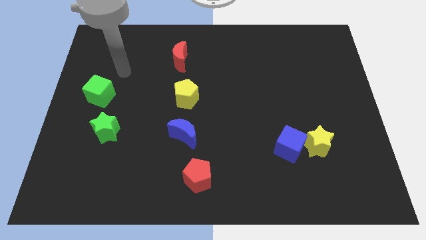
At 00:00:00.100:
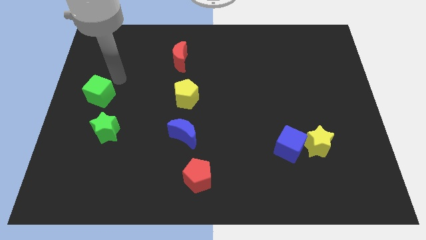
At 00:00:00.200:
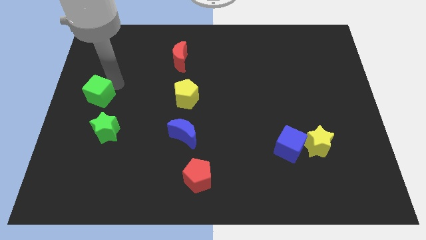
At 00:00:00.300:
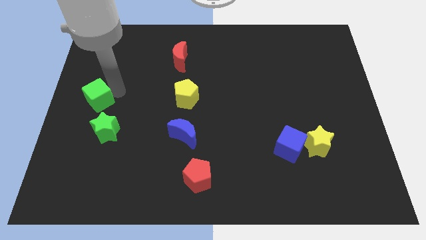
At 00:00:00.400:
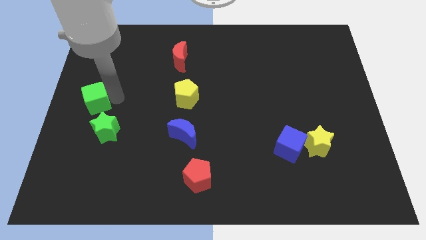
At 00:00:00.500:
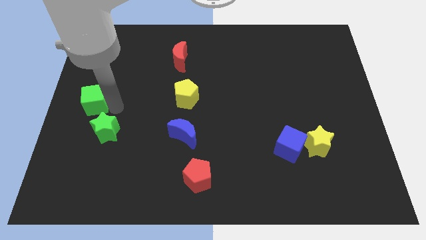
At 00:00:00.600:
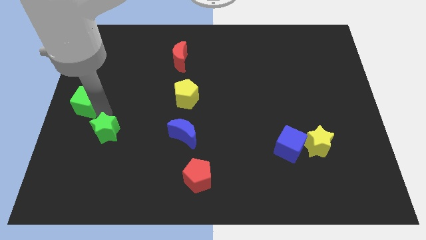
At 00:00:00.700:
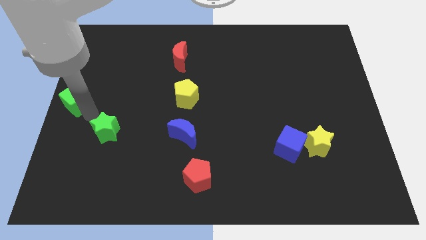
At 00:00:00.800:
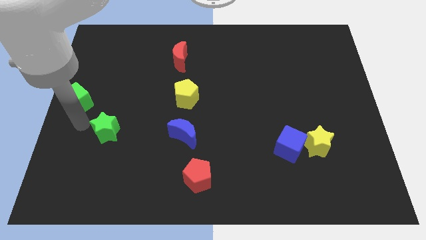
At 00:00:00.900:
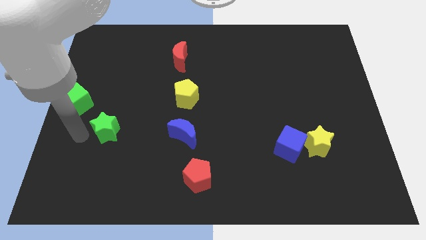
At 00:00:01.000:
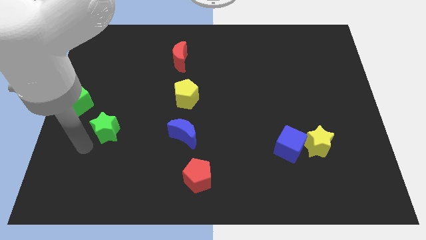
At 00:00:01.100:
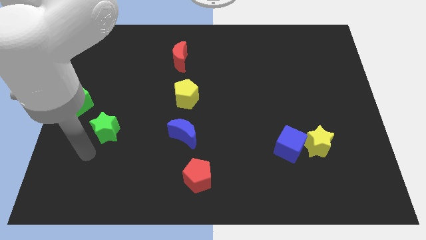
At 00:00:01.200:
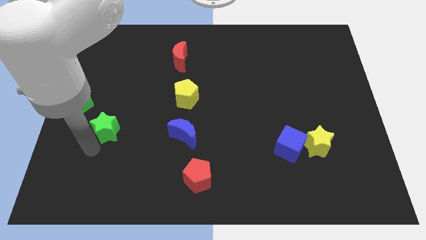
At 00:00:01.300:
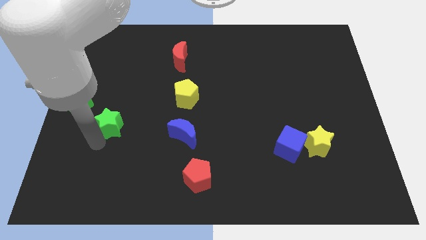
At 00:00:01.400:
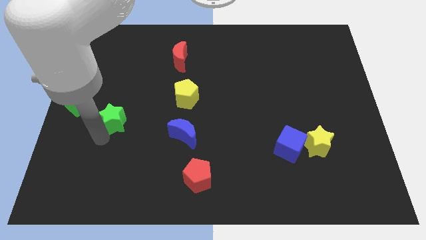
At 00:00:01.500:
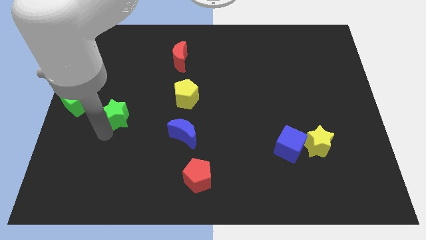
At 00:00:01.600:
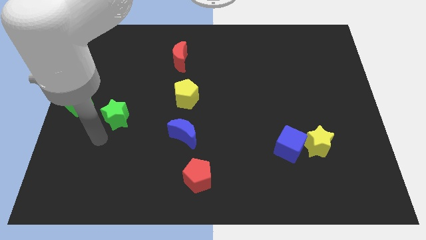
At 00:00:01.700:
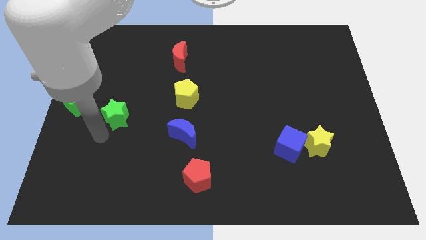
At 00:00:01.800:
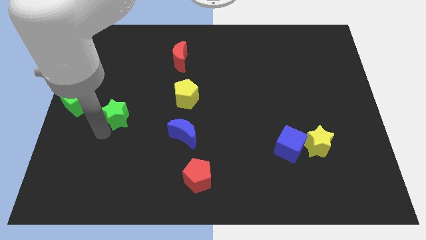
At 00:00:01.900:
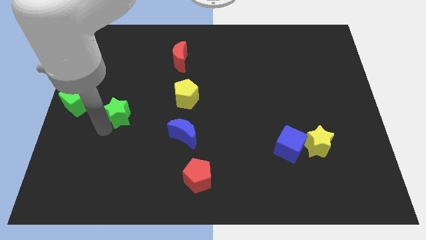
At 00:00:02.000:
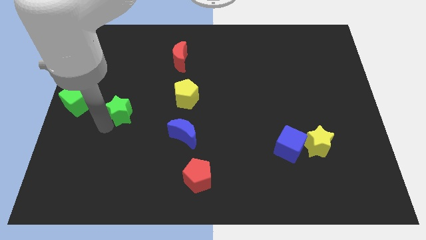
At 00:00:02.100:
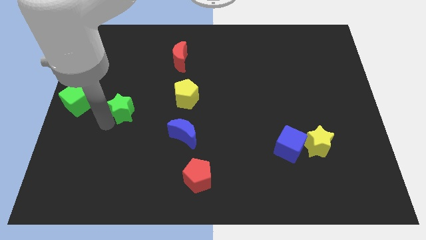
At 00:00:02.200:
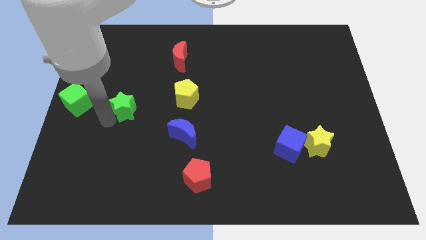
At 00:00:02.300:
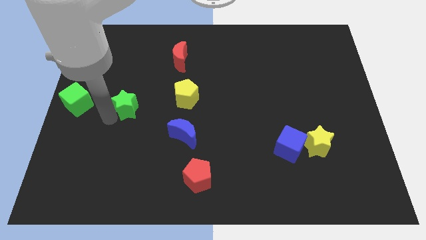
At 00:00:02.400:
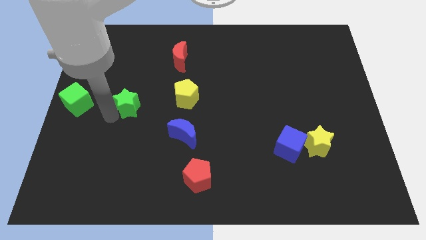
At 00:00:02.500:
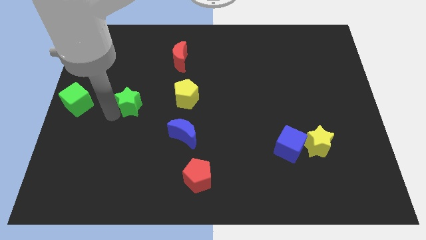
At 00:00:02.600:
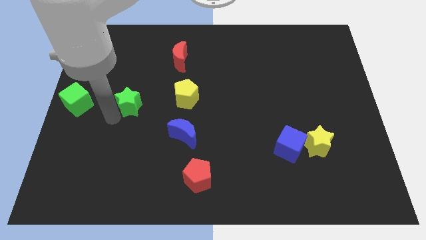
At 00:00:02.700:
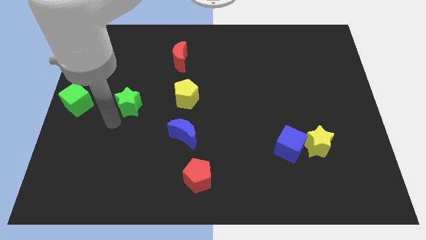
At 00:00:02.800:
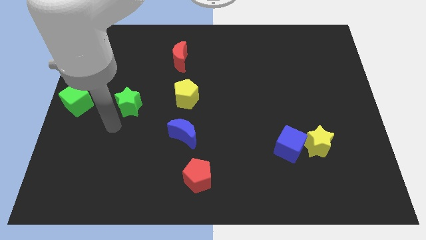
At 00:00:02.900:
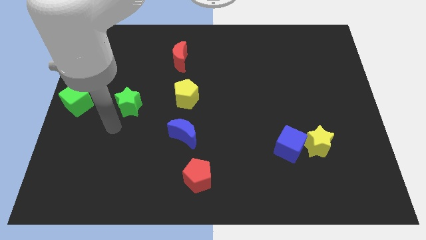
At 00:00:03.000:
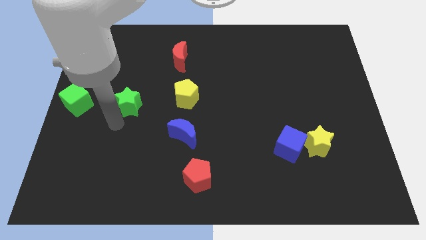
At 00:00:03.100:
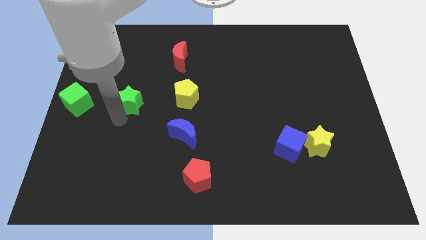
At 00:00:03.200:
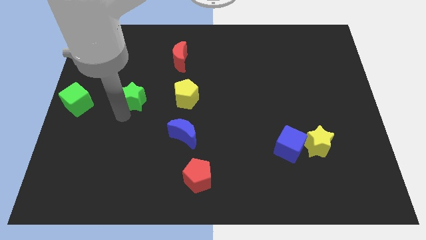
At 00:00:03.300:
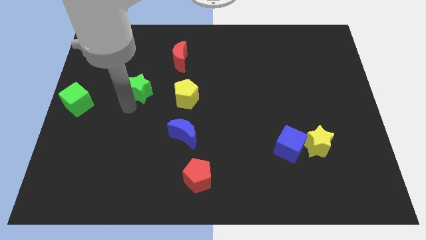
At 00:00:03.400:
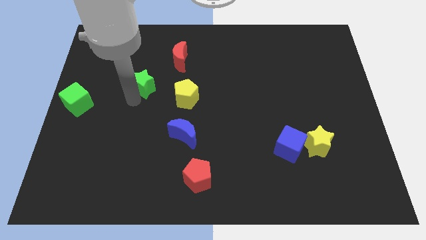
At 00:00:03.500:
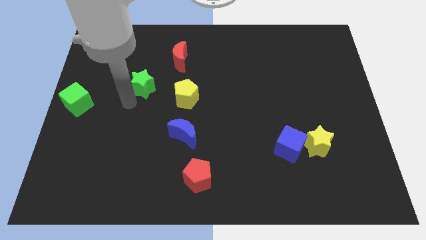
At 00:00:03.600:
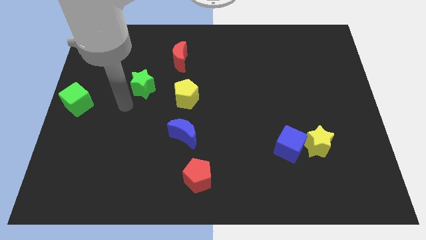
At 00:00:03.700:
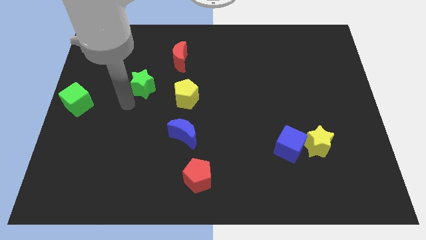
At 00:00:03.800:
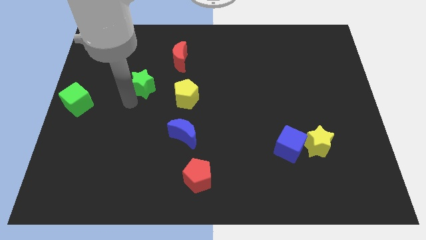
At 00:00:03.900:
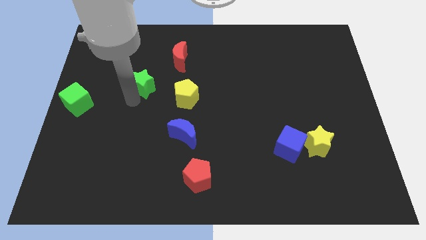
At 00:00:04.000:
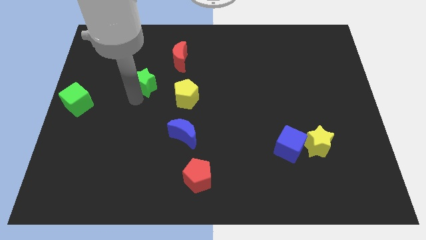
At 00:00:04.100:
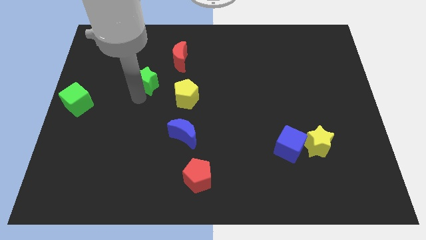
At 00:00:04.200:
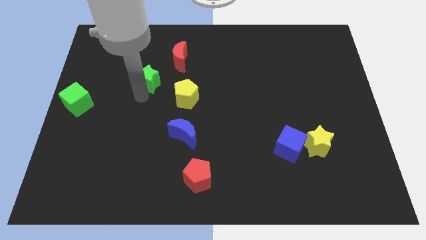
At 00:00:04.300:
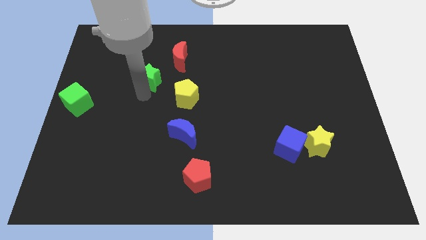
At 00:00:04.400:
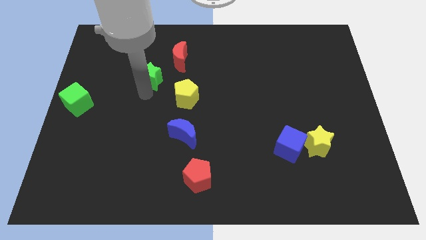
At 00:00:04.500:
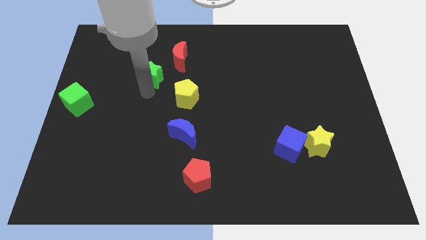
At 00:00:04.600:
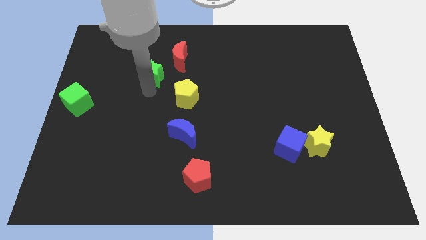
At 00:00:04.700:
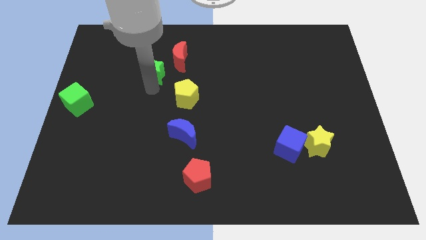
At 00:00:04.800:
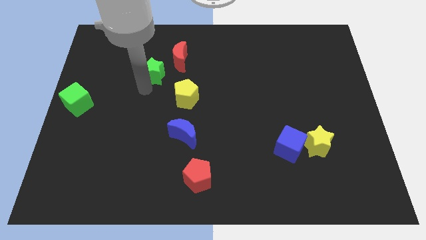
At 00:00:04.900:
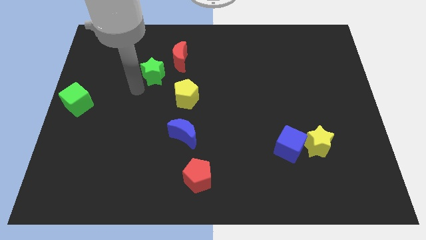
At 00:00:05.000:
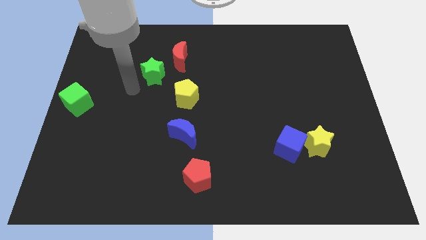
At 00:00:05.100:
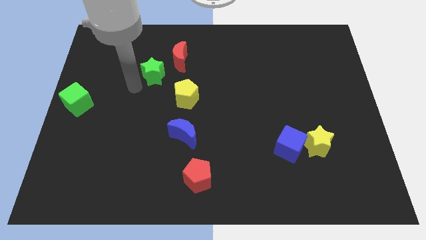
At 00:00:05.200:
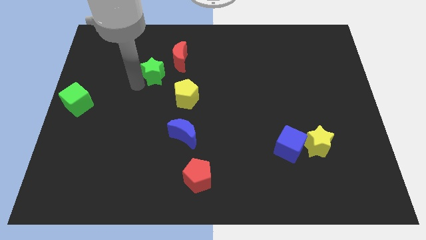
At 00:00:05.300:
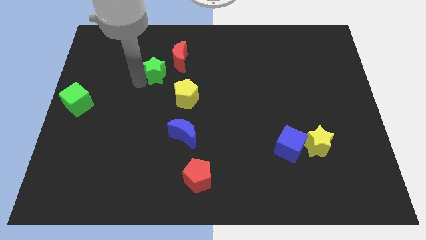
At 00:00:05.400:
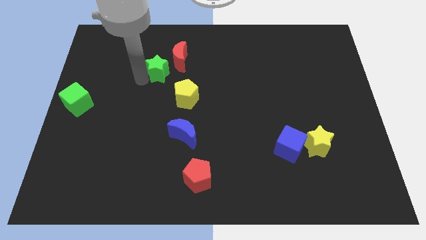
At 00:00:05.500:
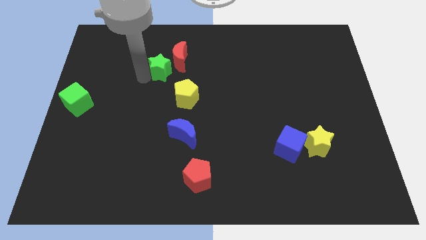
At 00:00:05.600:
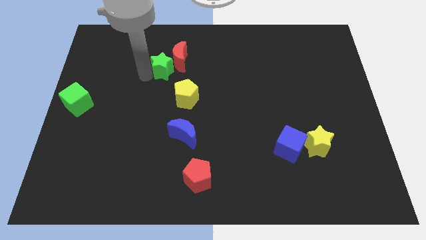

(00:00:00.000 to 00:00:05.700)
slide the green star to the red moon

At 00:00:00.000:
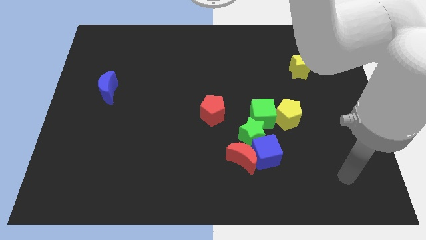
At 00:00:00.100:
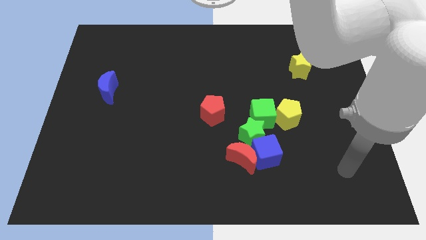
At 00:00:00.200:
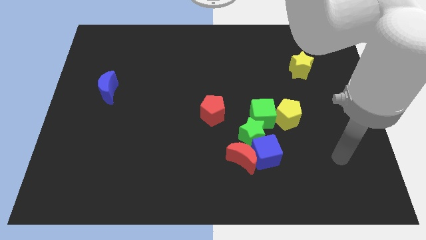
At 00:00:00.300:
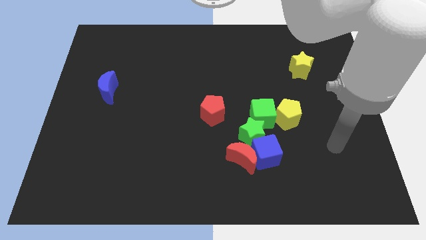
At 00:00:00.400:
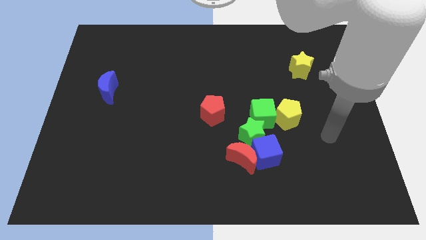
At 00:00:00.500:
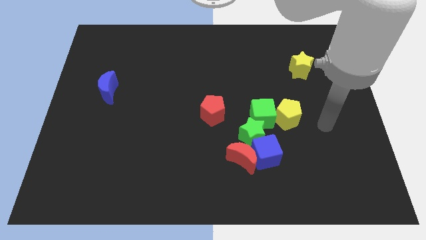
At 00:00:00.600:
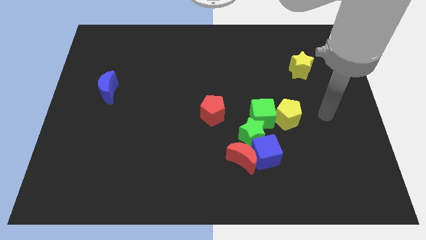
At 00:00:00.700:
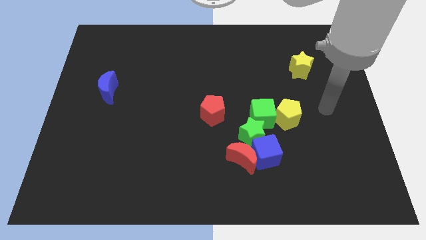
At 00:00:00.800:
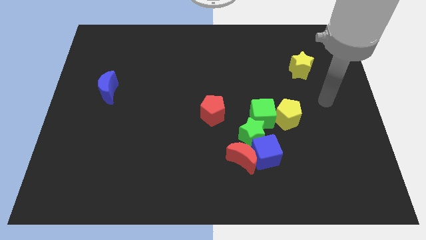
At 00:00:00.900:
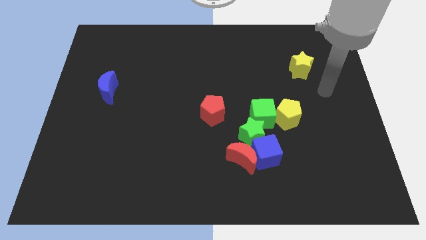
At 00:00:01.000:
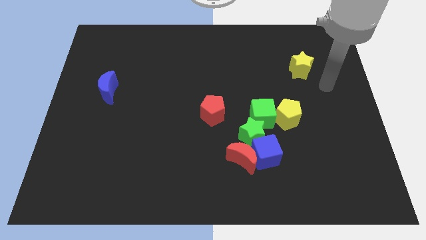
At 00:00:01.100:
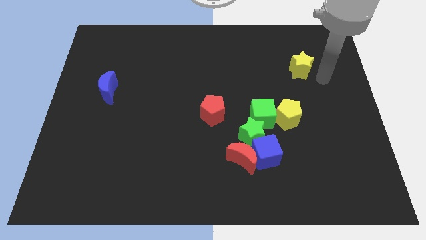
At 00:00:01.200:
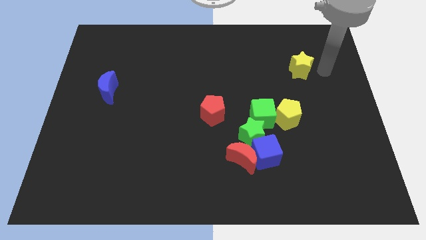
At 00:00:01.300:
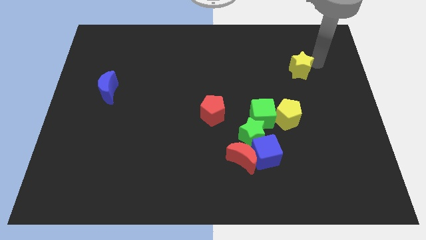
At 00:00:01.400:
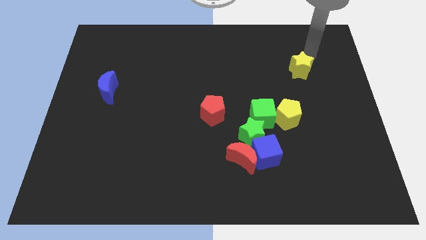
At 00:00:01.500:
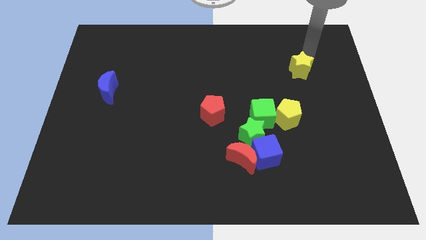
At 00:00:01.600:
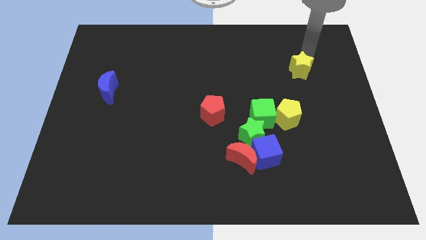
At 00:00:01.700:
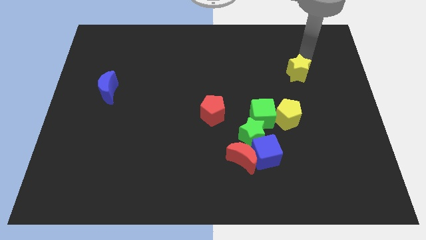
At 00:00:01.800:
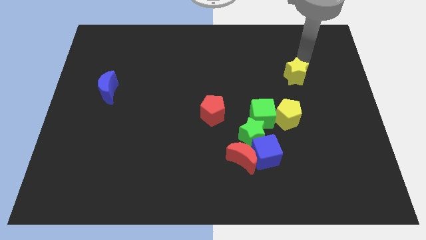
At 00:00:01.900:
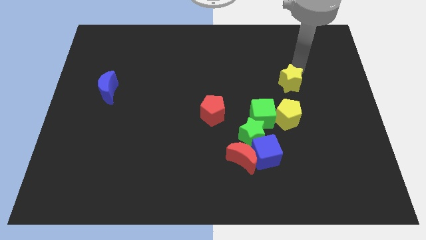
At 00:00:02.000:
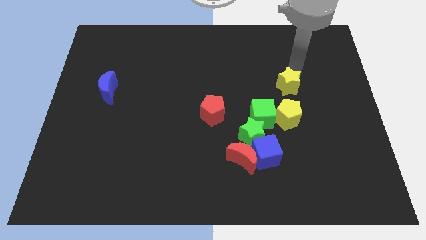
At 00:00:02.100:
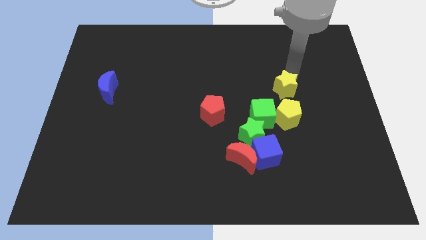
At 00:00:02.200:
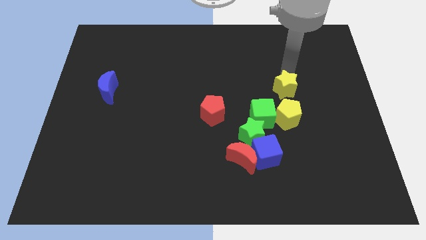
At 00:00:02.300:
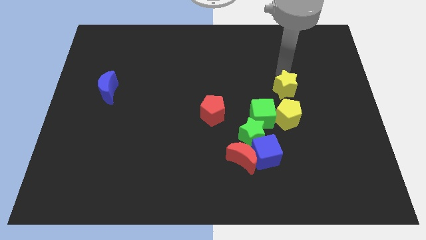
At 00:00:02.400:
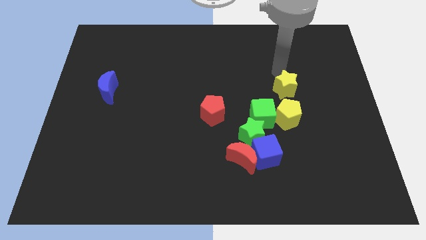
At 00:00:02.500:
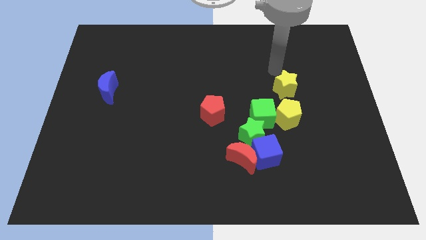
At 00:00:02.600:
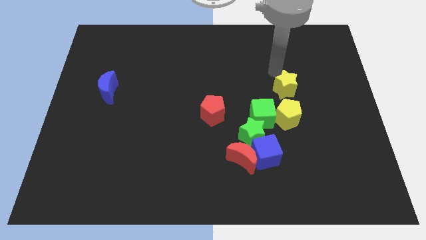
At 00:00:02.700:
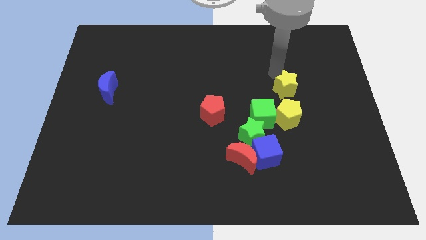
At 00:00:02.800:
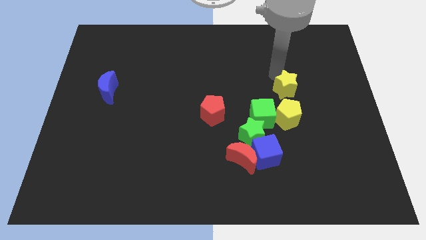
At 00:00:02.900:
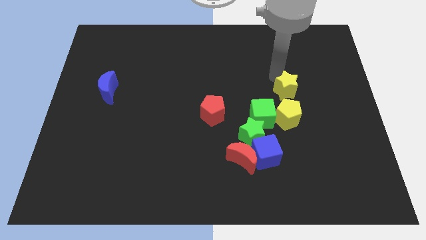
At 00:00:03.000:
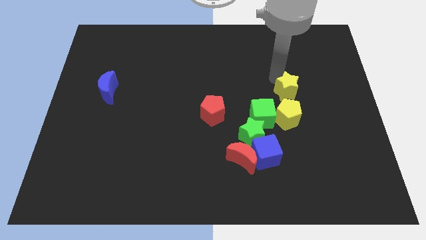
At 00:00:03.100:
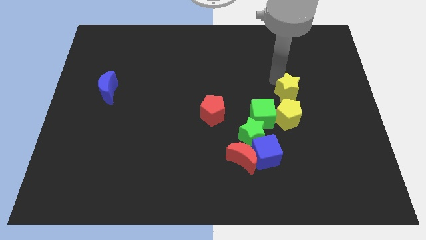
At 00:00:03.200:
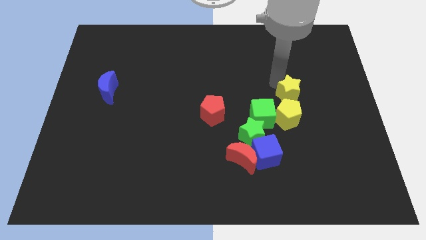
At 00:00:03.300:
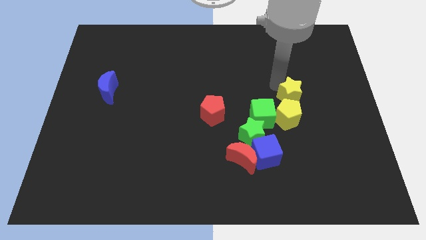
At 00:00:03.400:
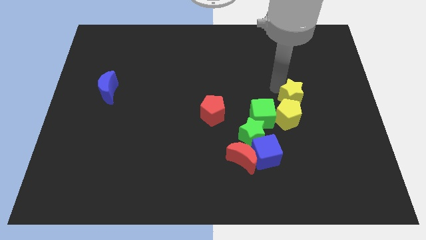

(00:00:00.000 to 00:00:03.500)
slide the yellow star close to the yellow pentagon
